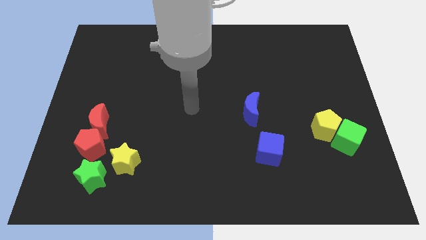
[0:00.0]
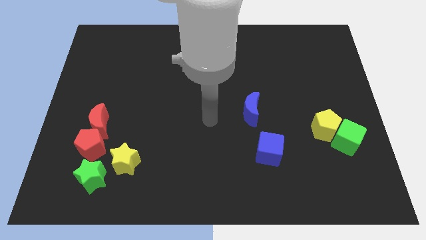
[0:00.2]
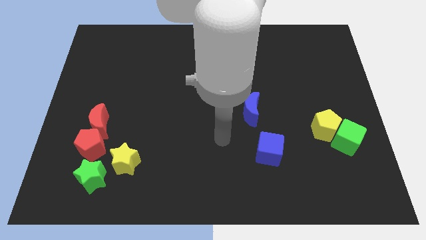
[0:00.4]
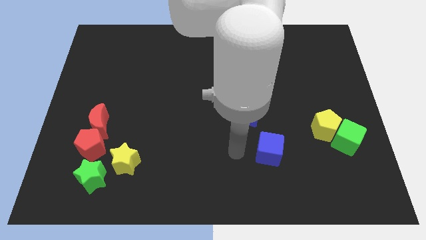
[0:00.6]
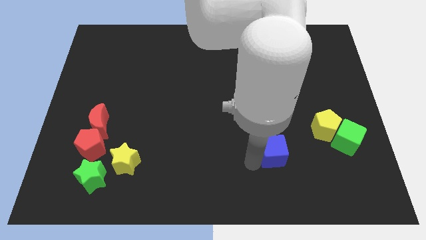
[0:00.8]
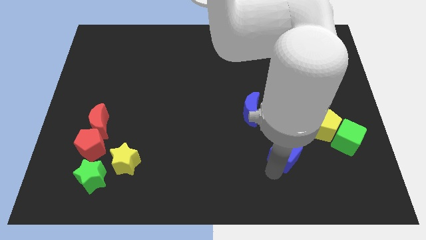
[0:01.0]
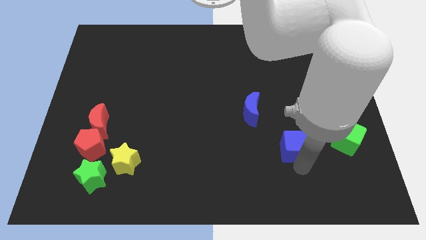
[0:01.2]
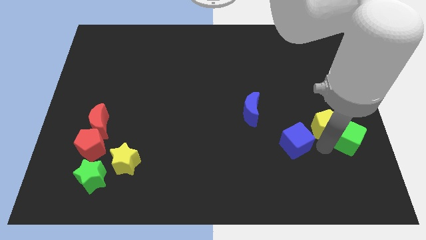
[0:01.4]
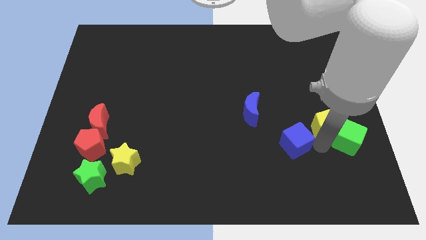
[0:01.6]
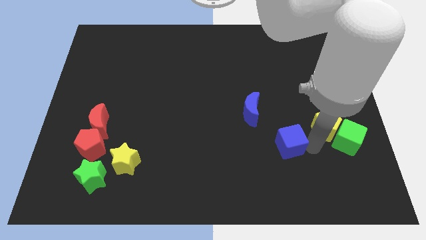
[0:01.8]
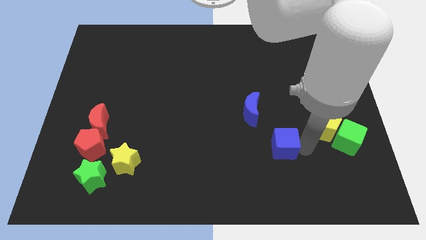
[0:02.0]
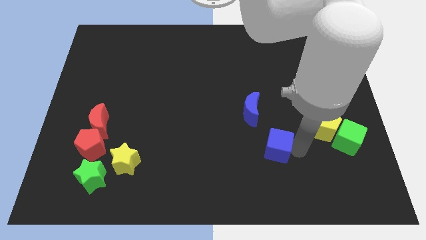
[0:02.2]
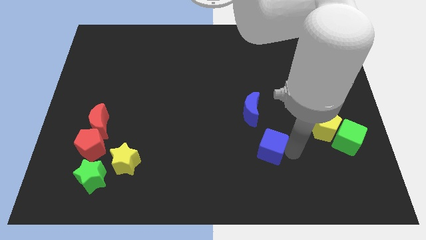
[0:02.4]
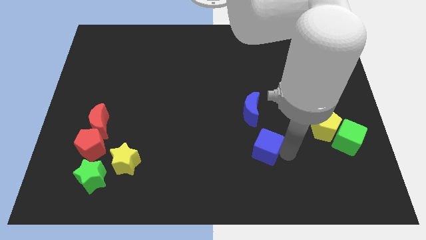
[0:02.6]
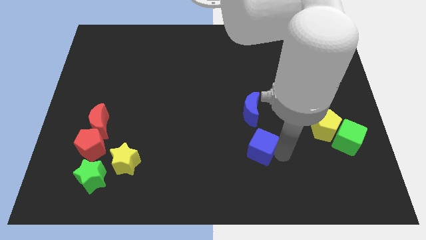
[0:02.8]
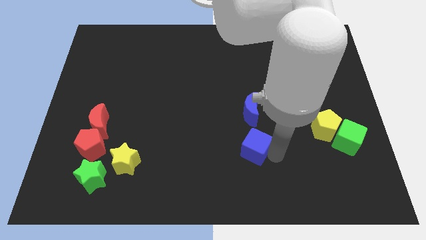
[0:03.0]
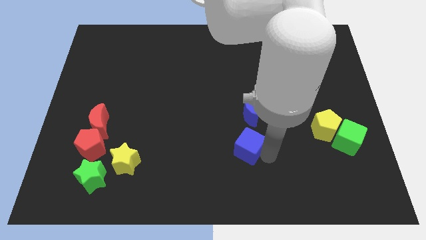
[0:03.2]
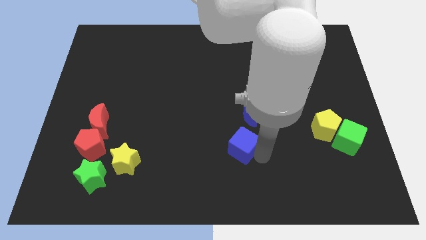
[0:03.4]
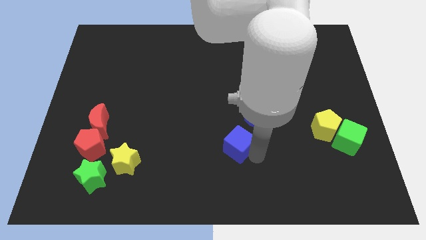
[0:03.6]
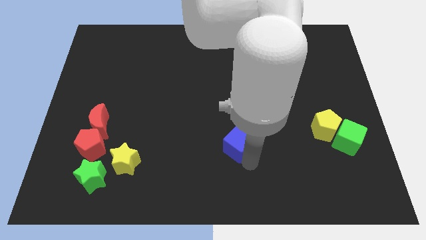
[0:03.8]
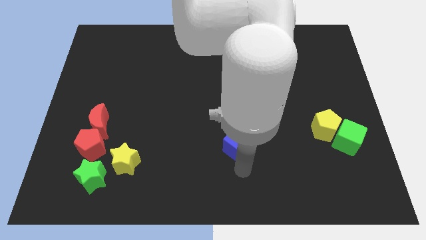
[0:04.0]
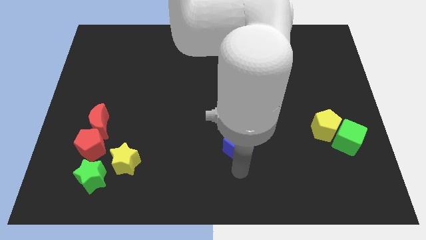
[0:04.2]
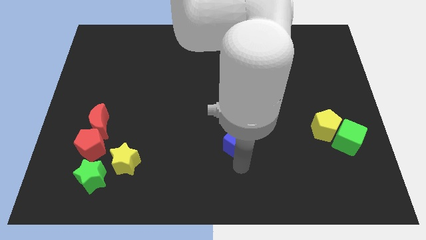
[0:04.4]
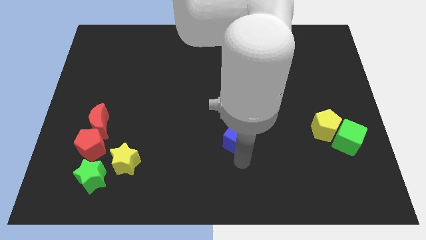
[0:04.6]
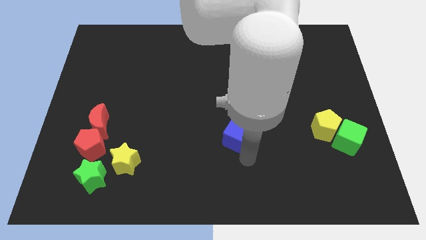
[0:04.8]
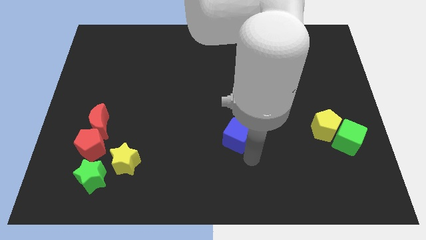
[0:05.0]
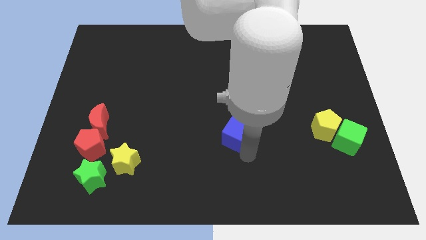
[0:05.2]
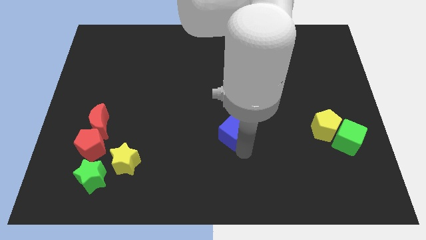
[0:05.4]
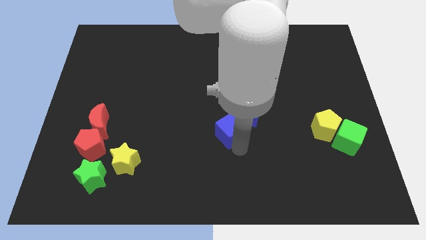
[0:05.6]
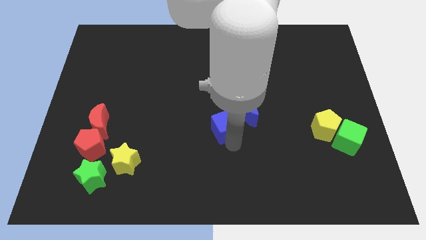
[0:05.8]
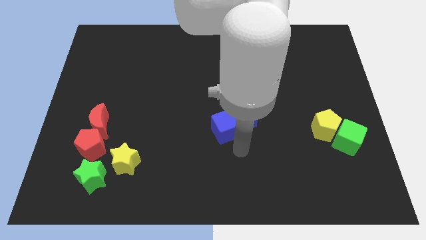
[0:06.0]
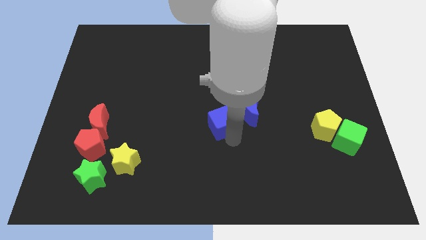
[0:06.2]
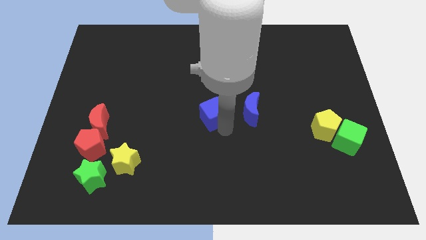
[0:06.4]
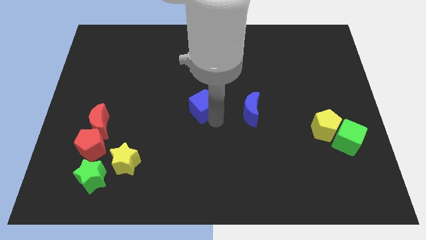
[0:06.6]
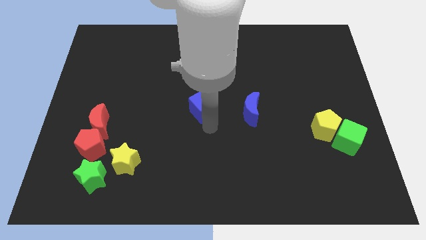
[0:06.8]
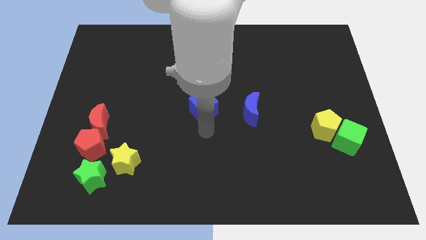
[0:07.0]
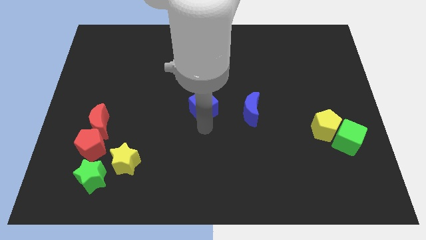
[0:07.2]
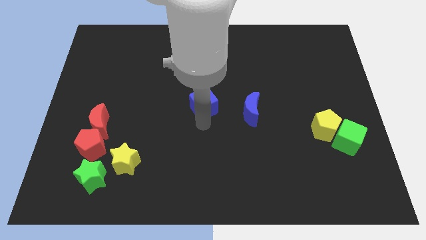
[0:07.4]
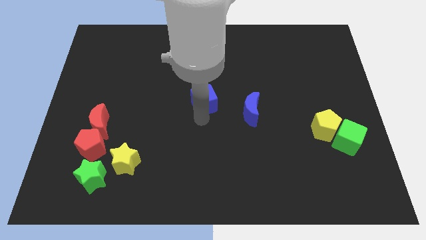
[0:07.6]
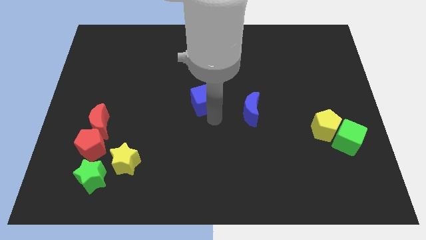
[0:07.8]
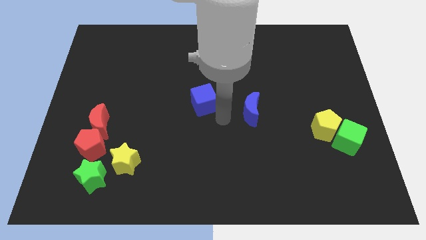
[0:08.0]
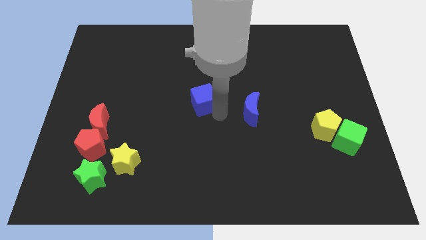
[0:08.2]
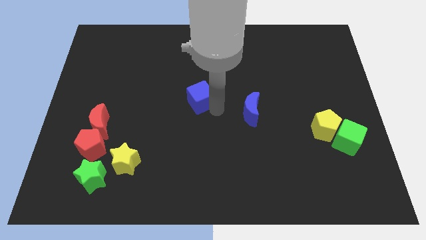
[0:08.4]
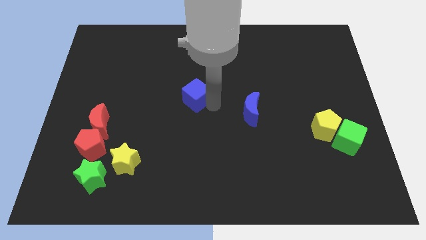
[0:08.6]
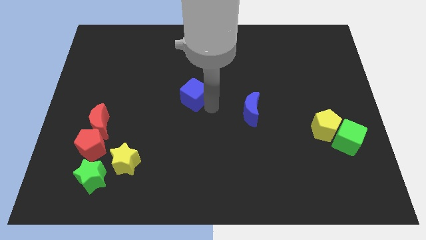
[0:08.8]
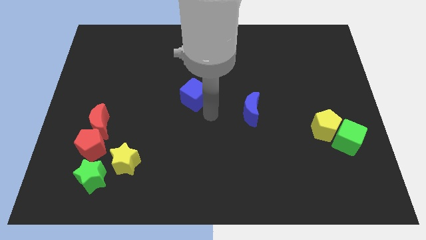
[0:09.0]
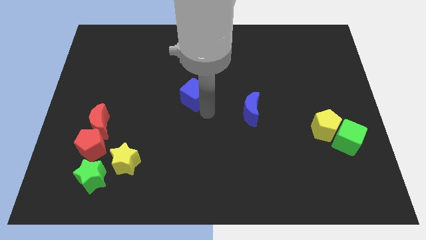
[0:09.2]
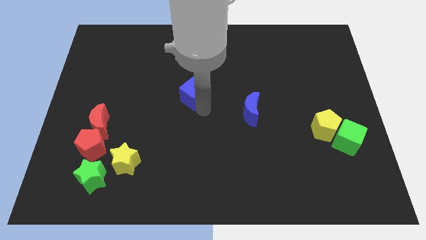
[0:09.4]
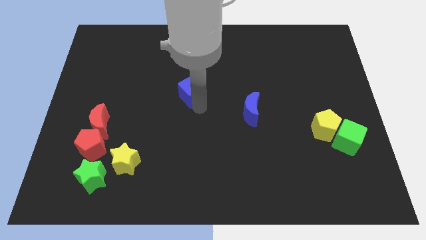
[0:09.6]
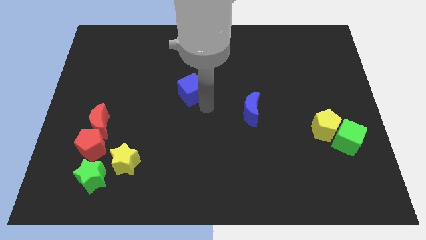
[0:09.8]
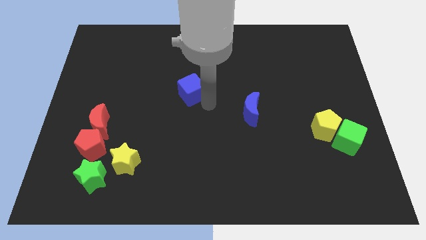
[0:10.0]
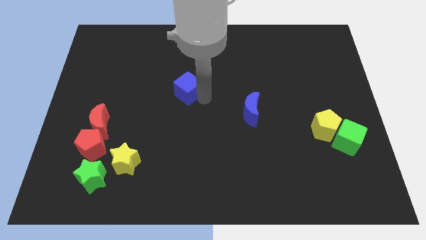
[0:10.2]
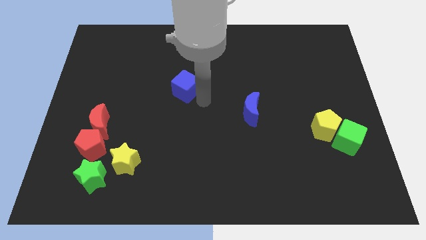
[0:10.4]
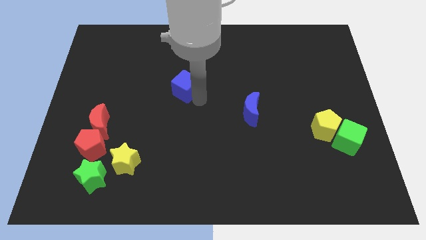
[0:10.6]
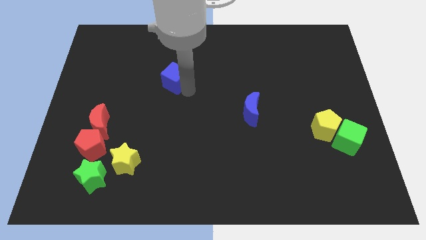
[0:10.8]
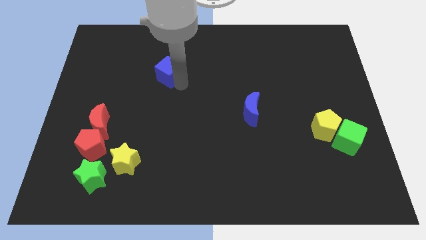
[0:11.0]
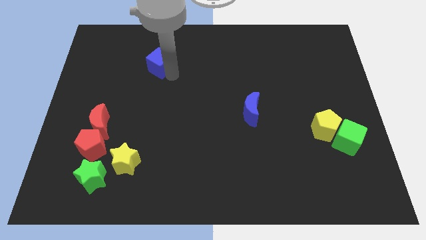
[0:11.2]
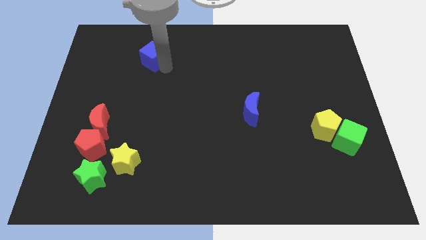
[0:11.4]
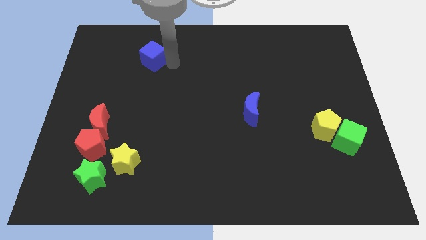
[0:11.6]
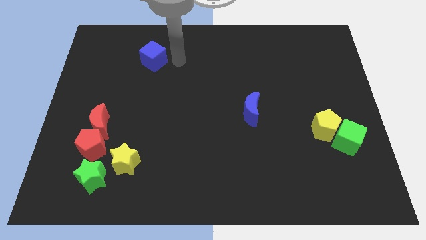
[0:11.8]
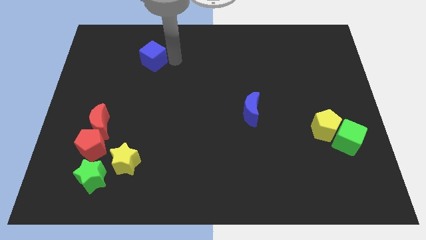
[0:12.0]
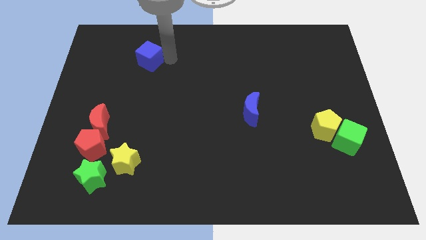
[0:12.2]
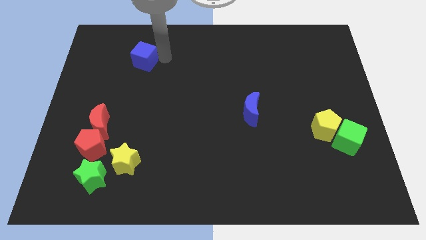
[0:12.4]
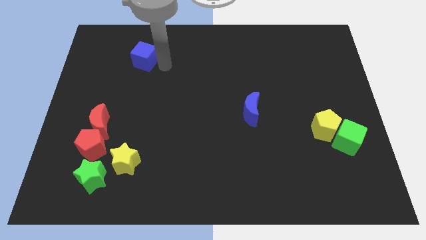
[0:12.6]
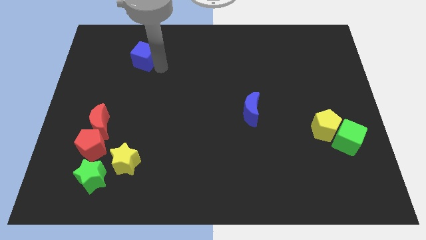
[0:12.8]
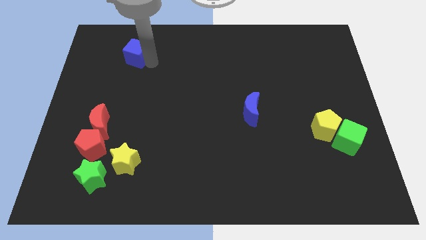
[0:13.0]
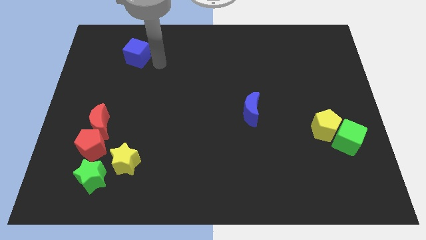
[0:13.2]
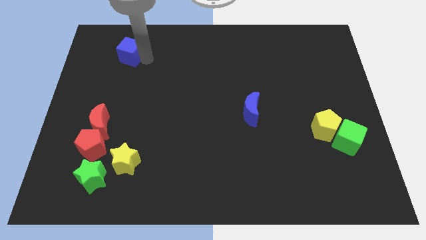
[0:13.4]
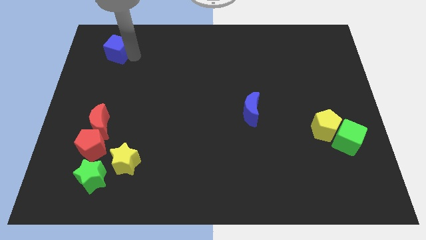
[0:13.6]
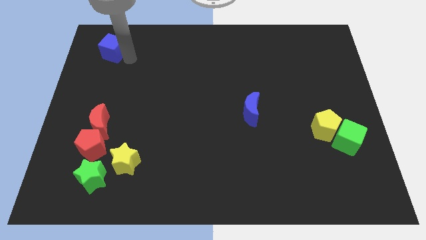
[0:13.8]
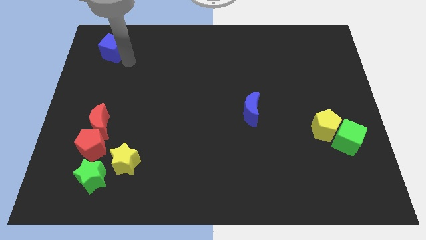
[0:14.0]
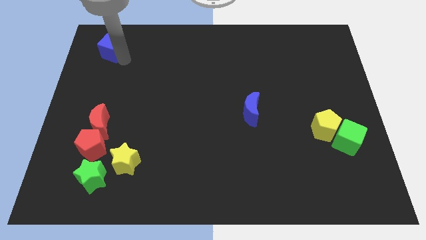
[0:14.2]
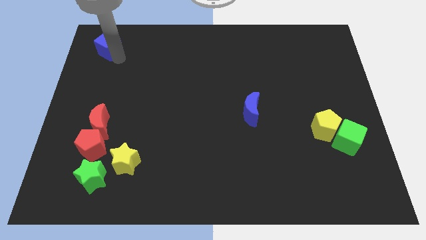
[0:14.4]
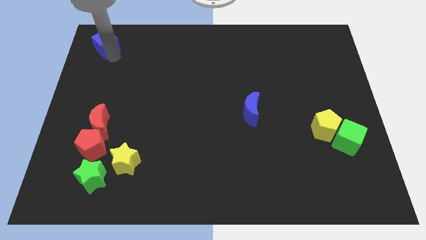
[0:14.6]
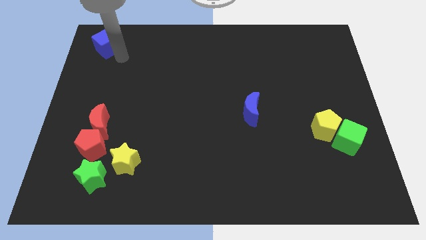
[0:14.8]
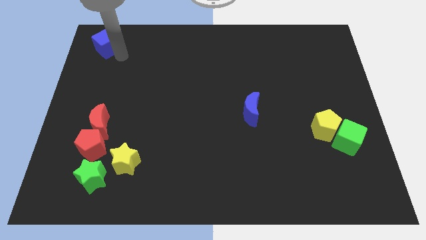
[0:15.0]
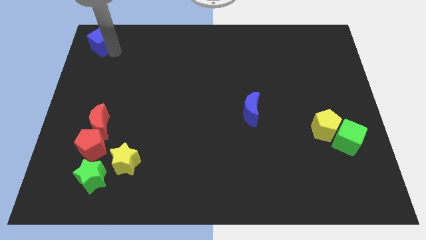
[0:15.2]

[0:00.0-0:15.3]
slide the blue cube to the top left corner
